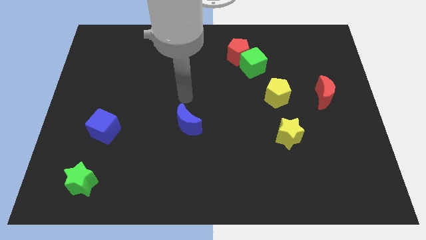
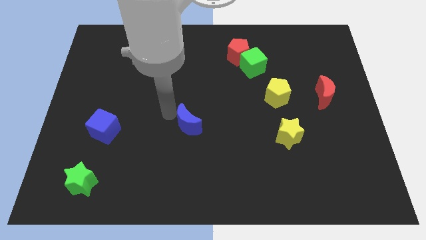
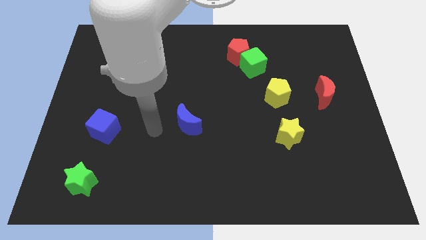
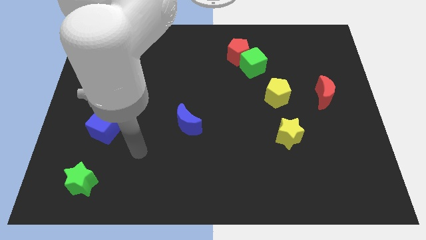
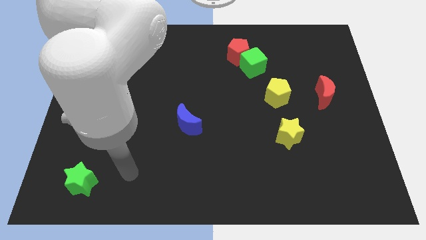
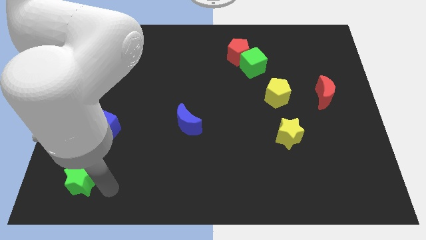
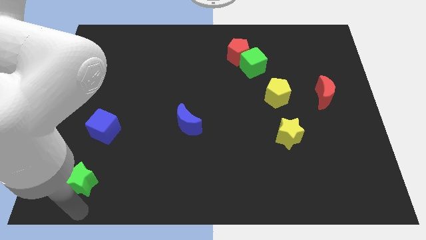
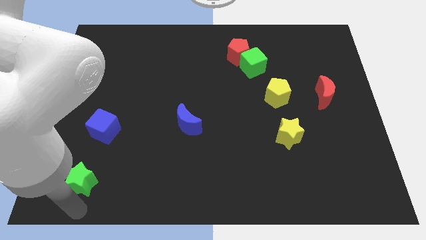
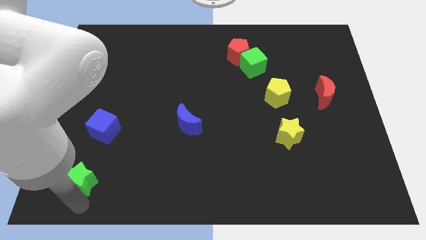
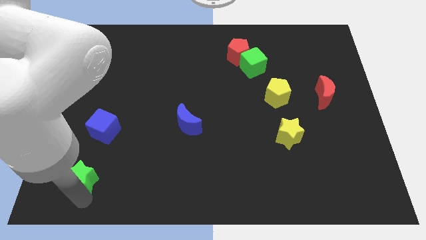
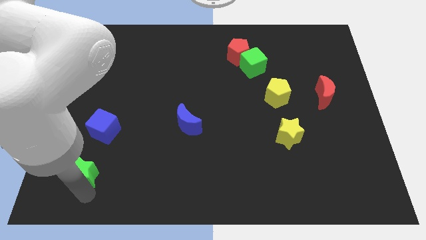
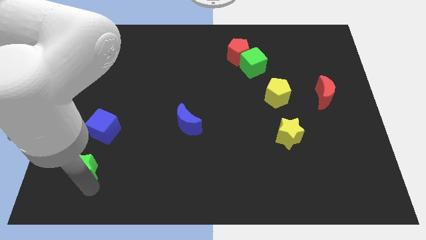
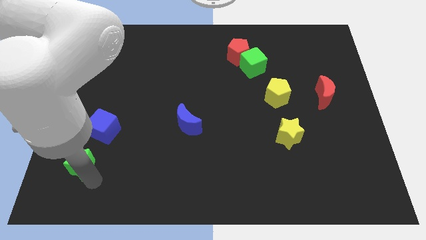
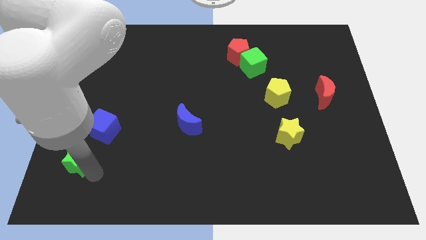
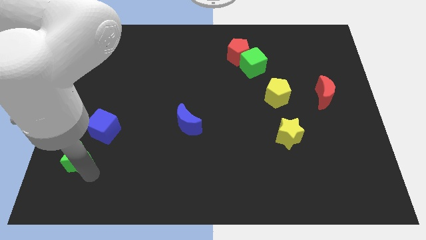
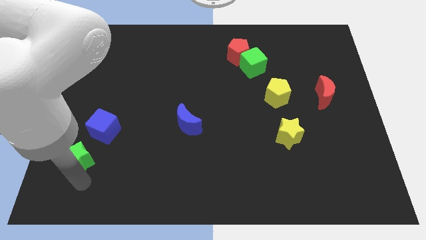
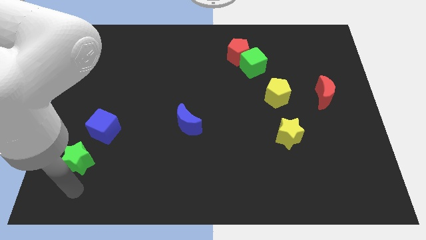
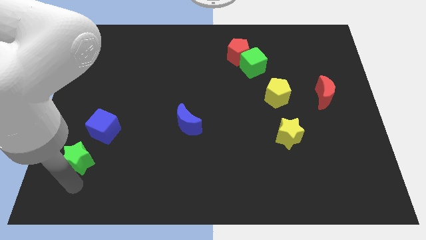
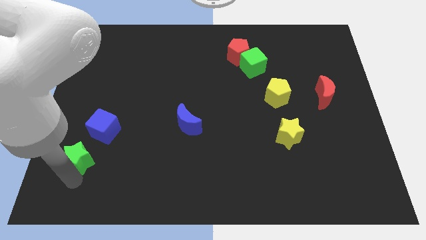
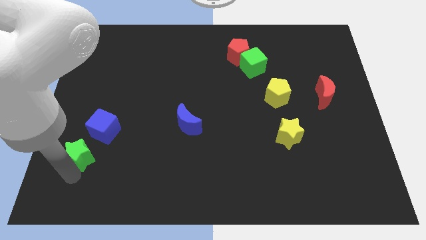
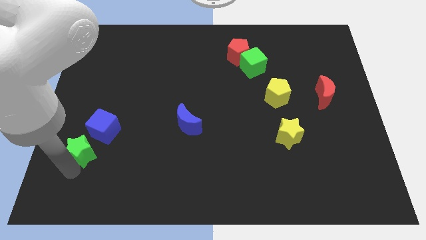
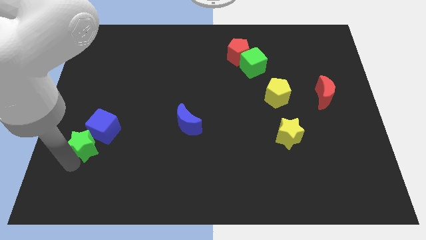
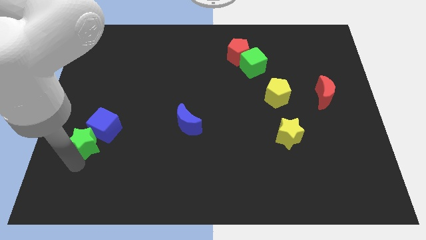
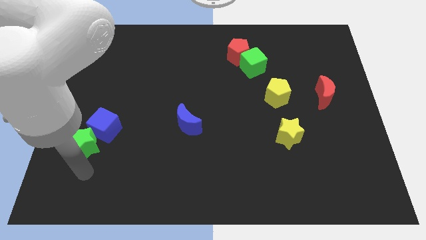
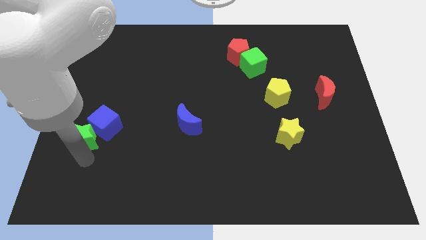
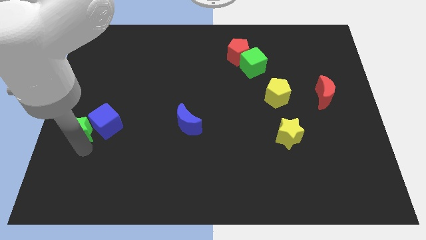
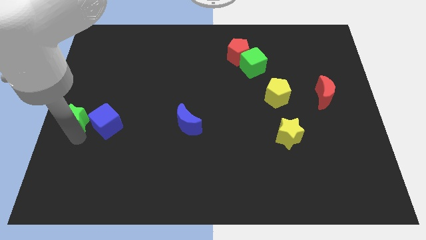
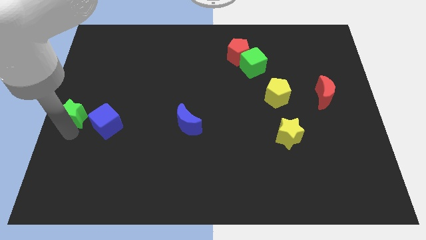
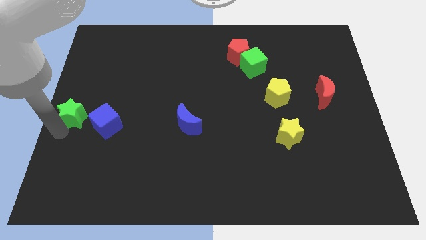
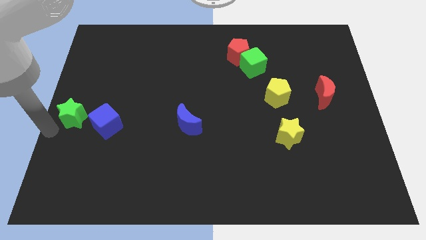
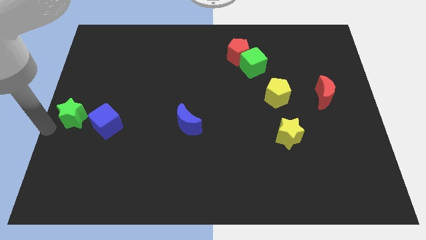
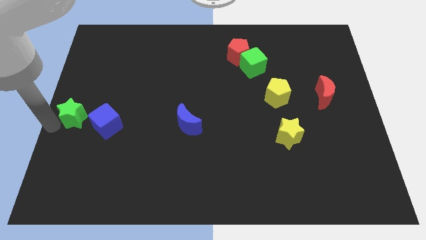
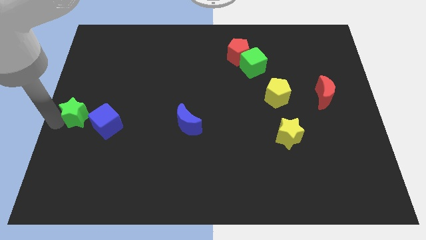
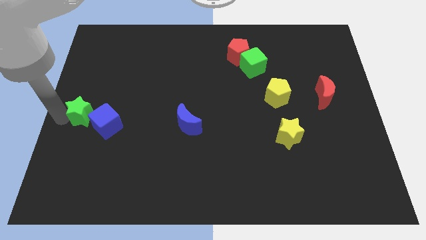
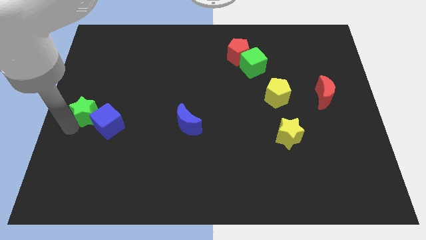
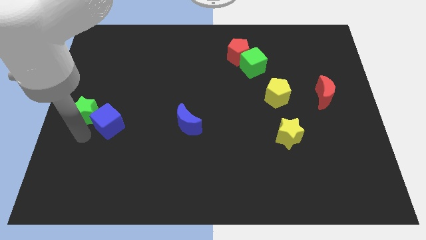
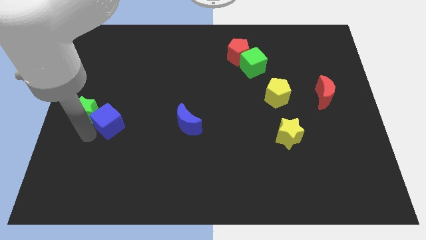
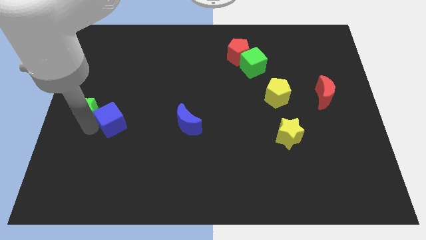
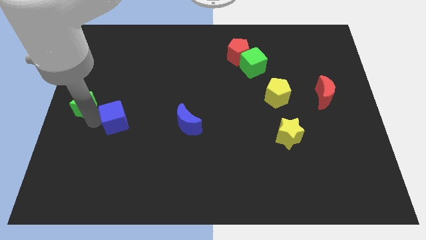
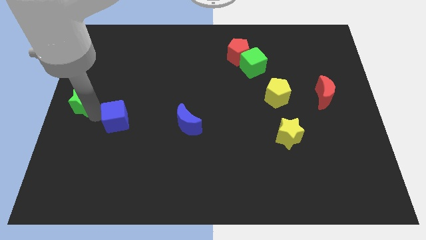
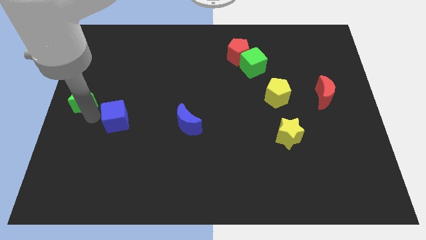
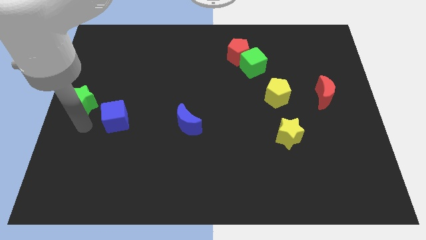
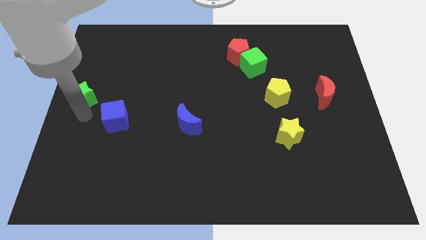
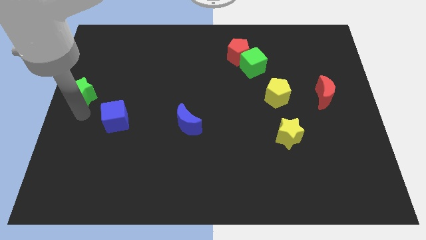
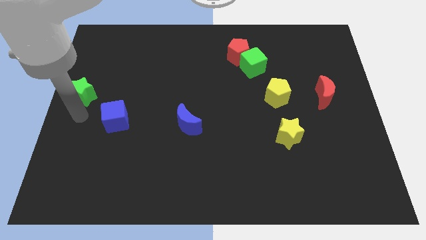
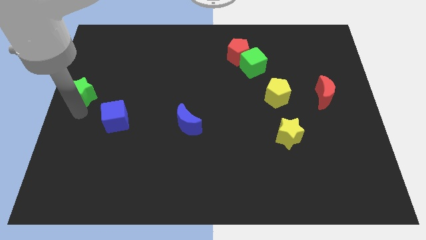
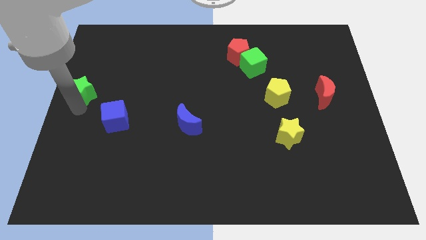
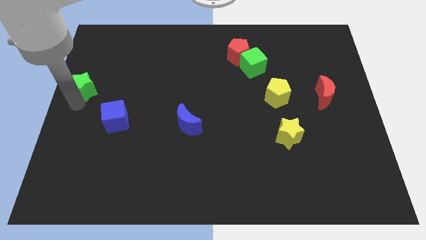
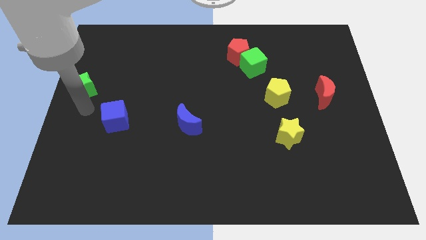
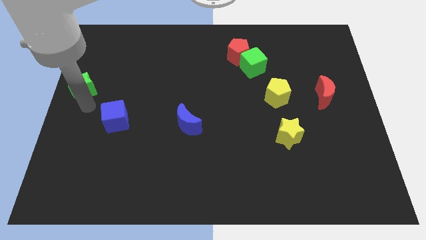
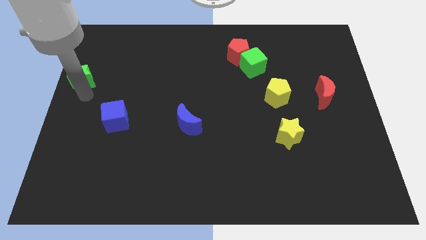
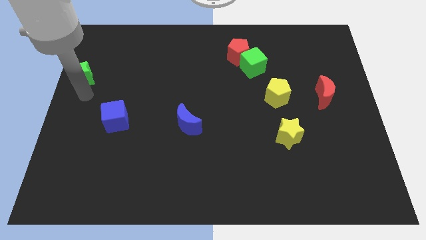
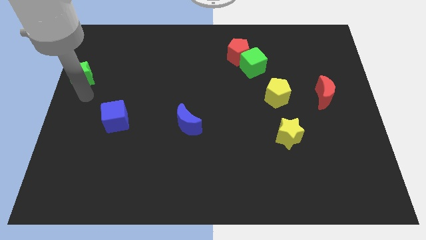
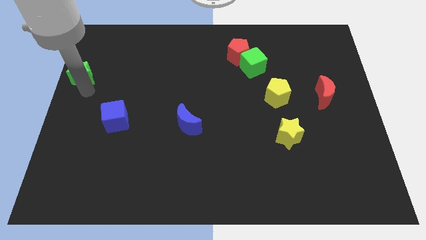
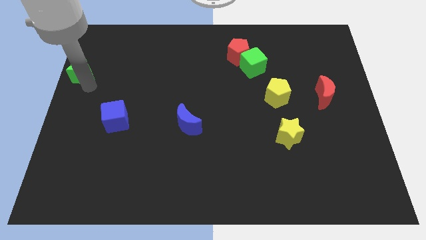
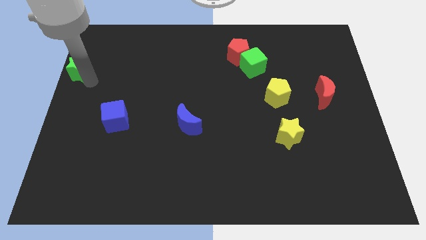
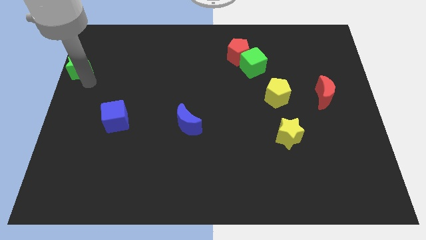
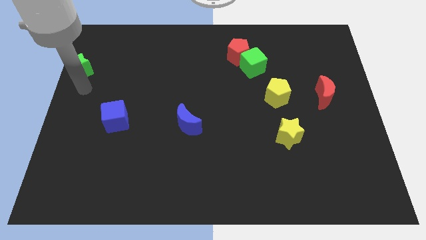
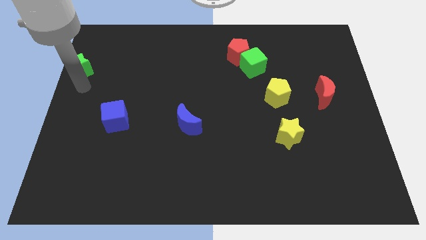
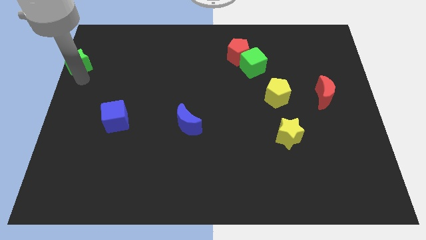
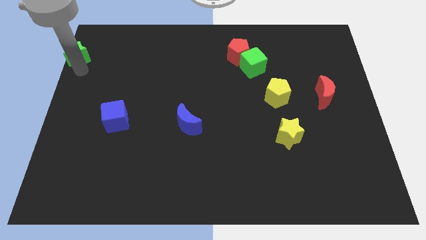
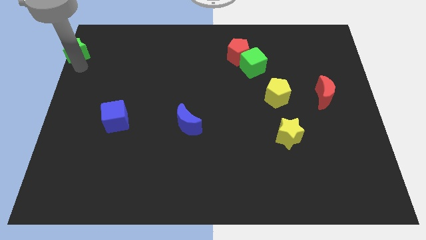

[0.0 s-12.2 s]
push the green star to the upper left corner

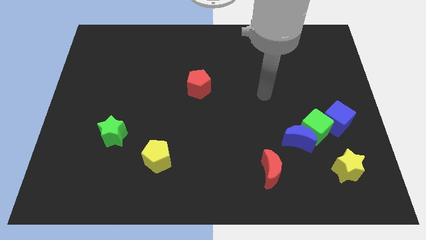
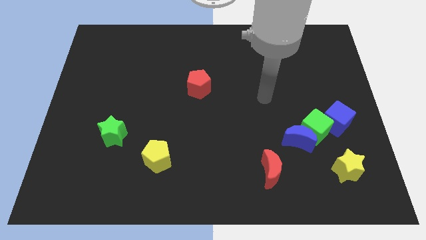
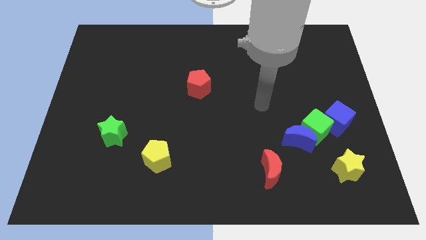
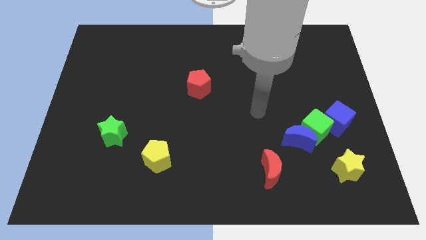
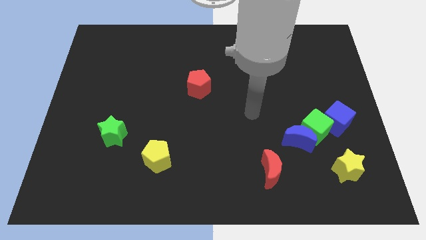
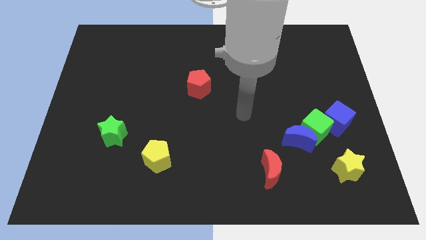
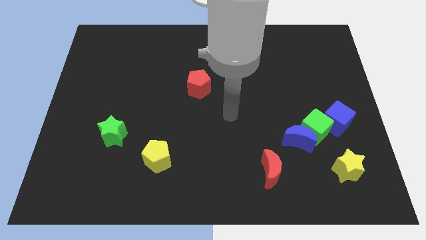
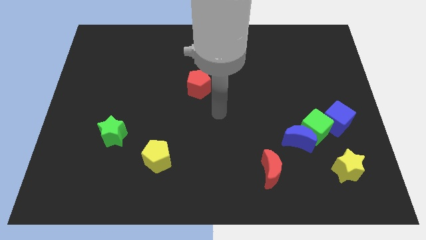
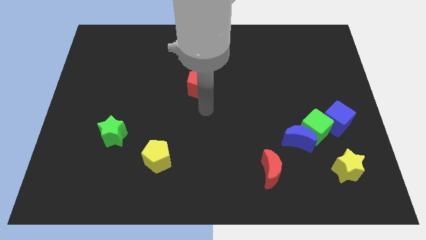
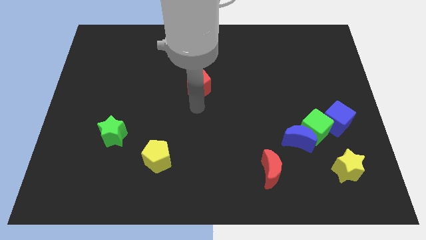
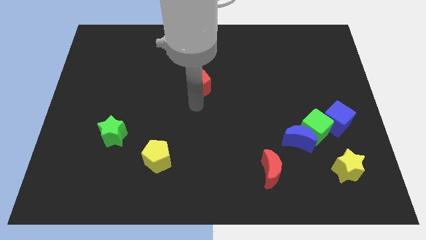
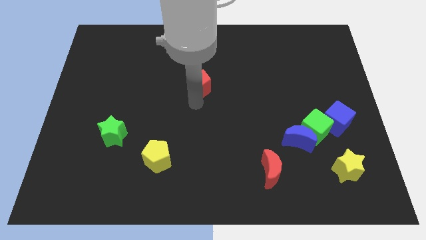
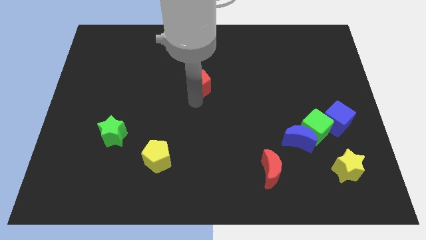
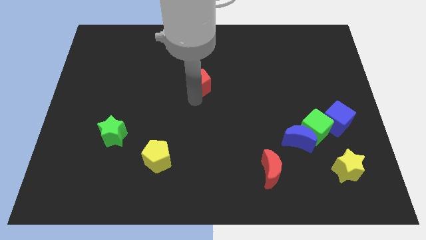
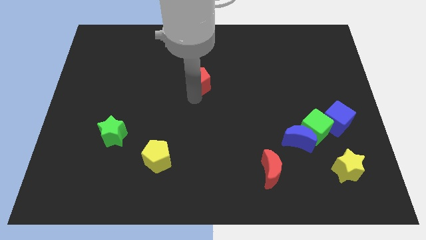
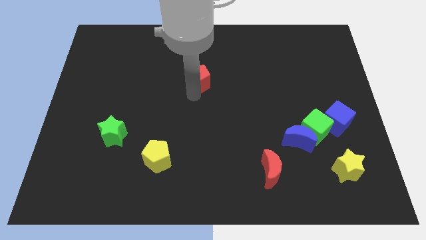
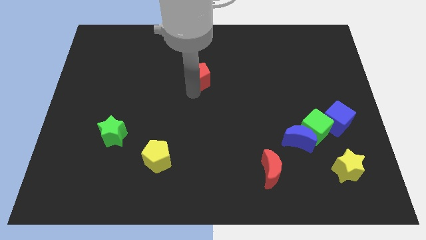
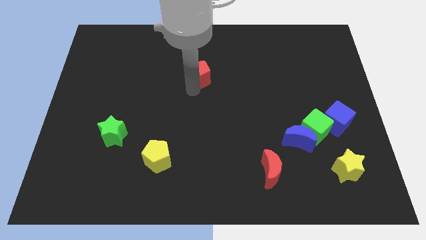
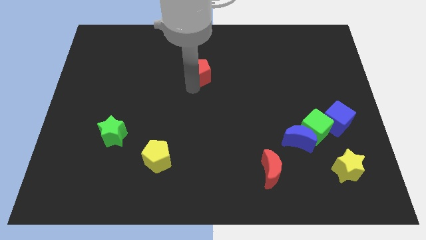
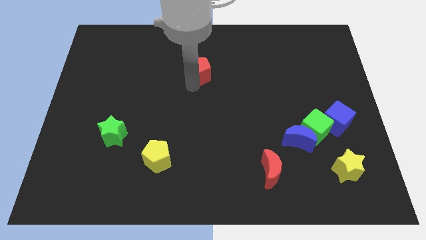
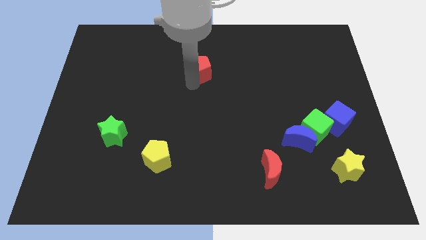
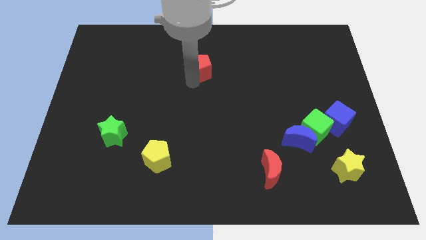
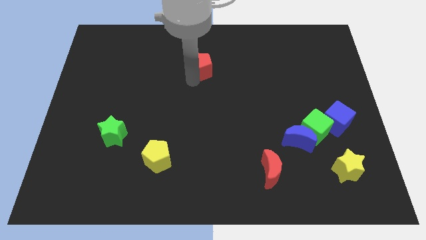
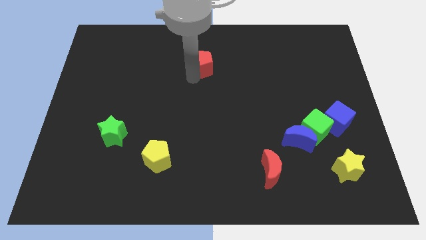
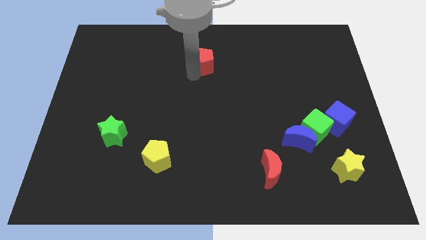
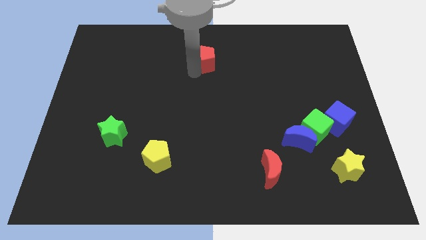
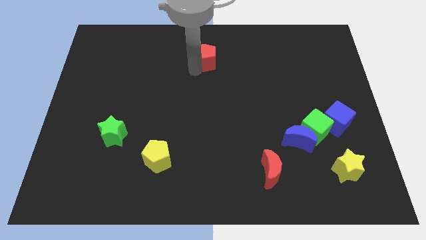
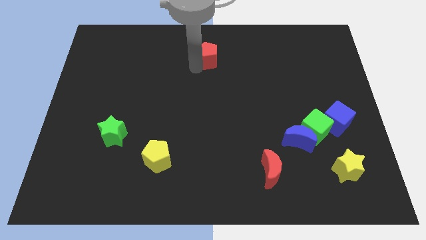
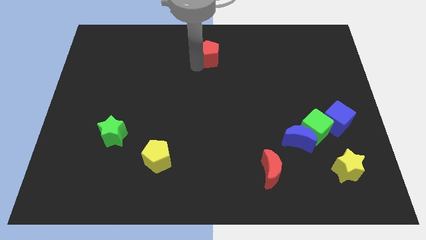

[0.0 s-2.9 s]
slide the red pentagon to the top side
